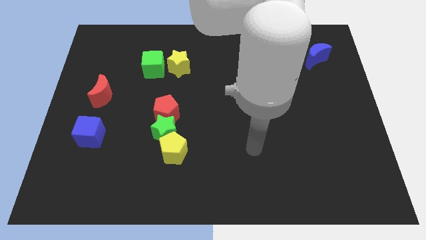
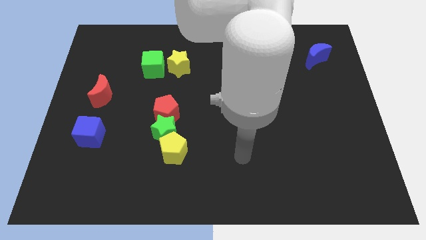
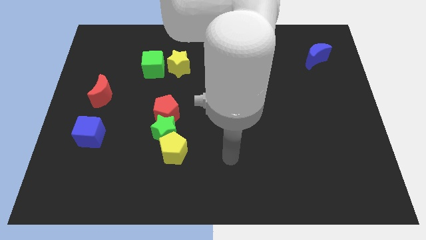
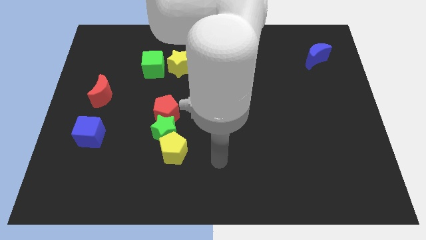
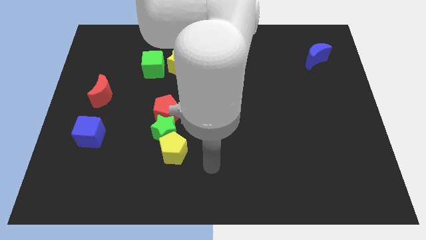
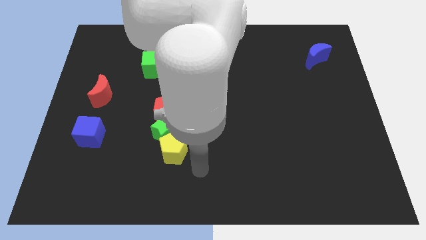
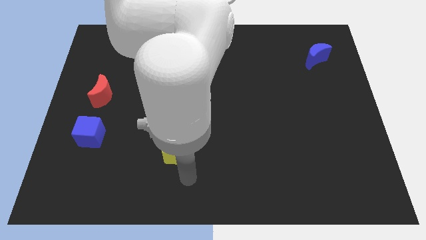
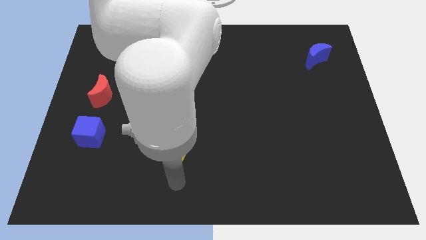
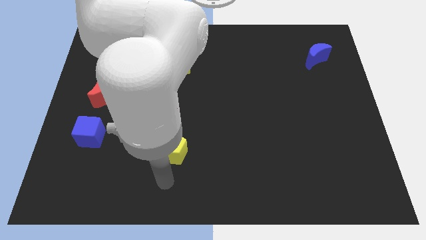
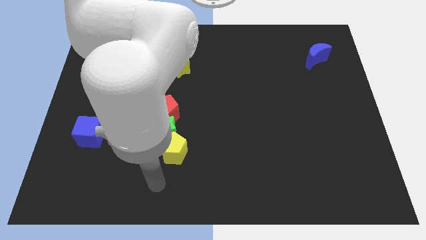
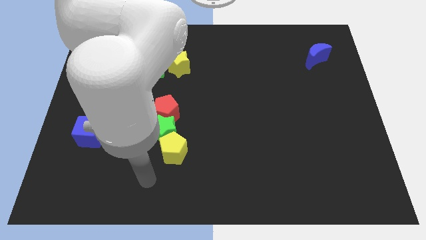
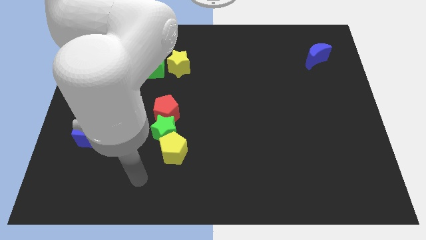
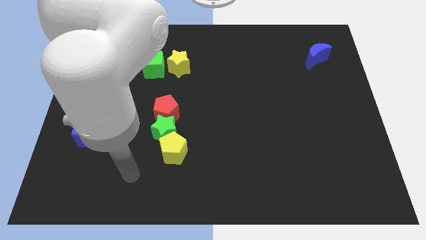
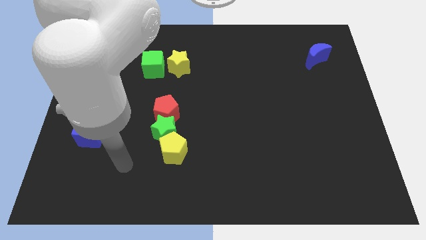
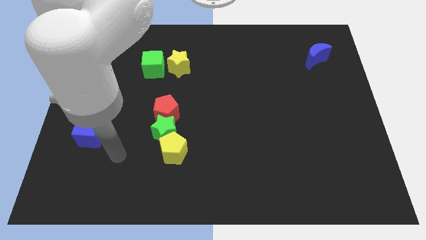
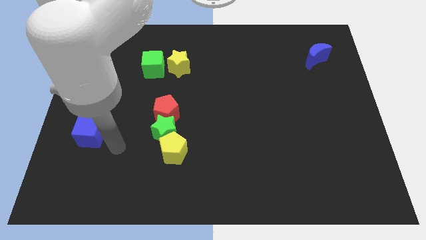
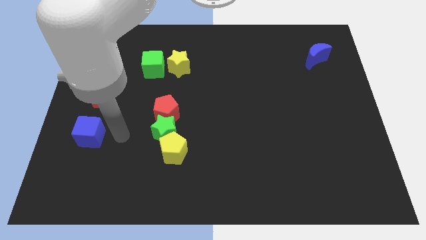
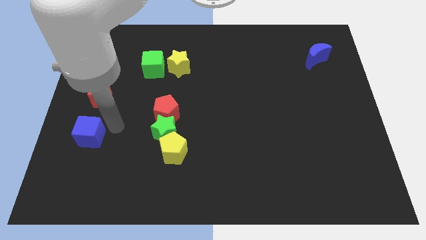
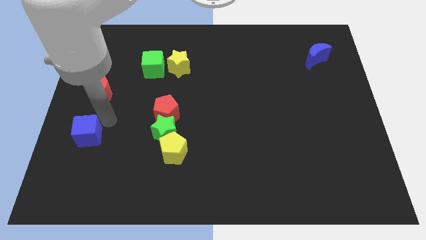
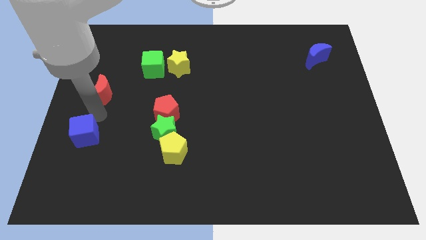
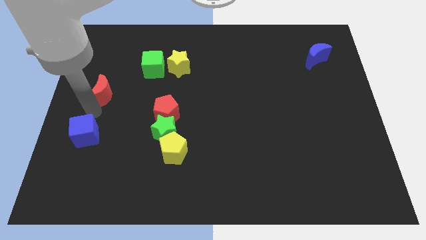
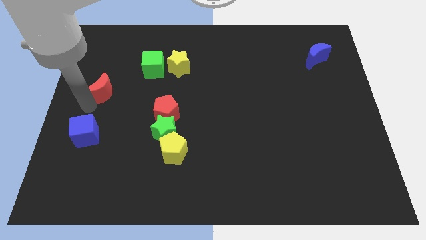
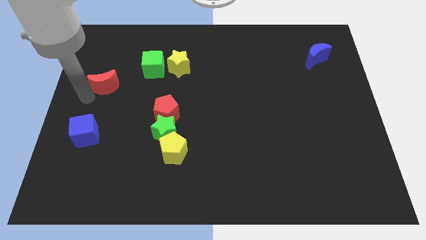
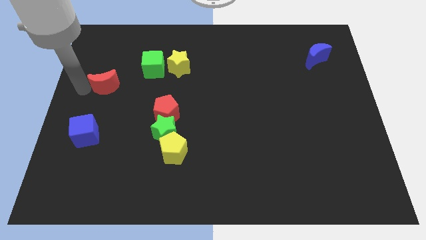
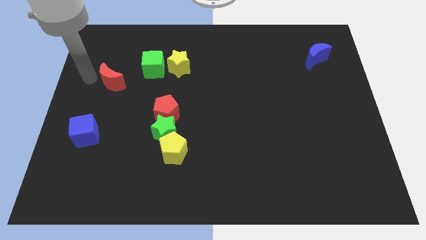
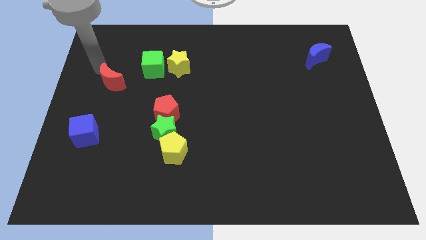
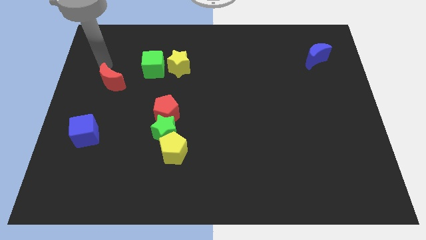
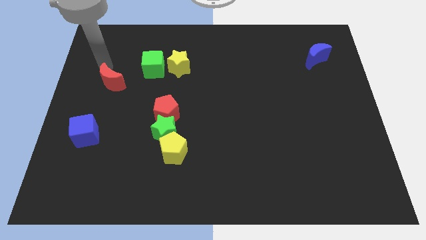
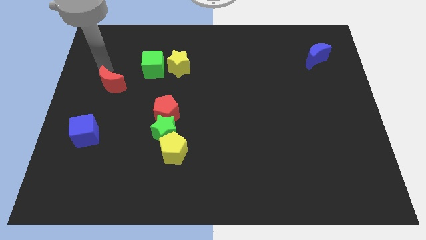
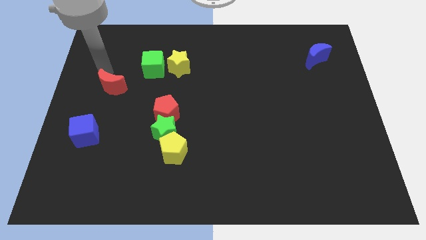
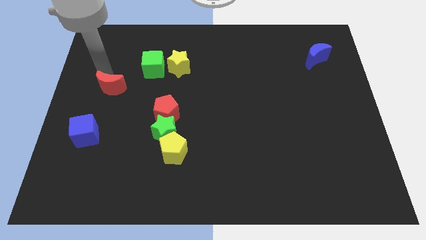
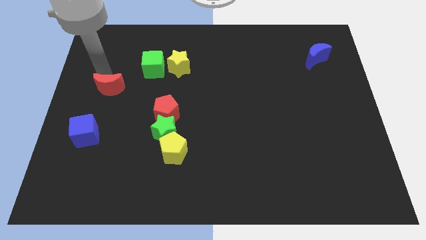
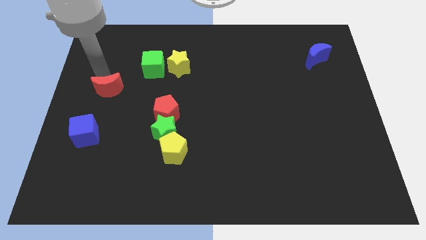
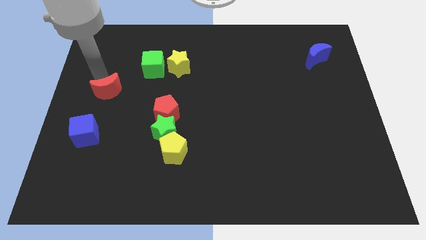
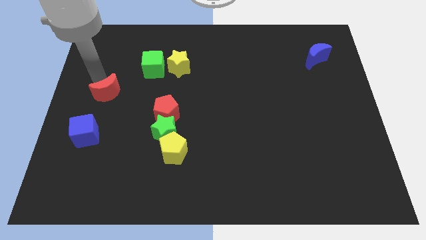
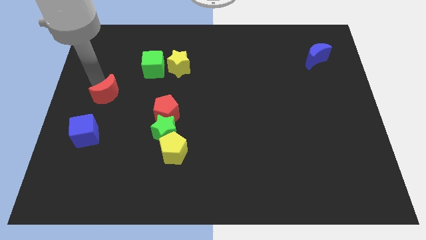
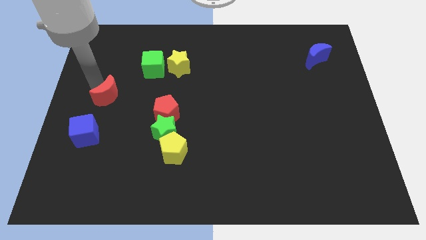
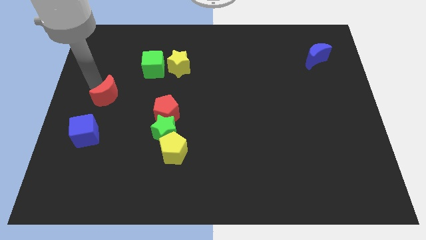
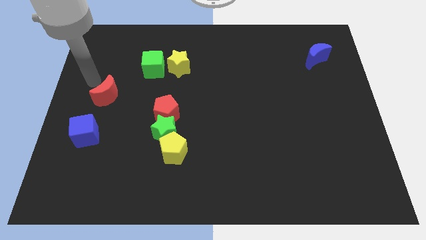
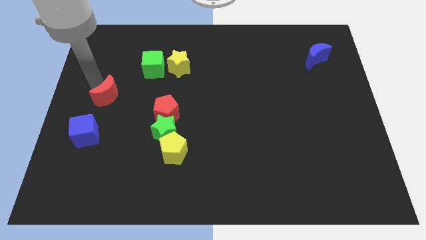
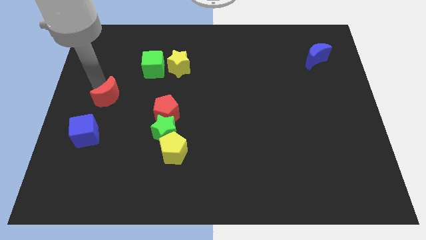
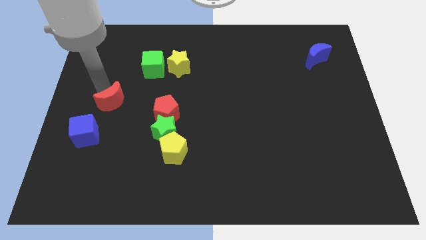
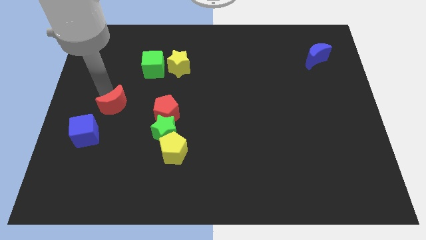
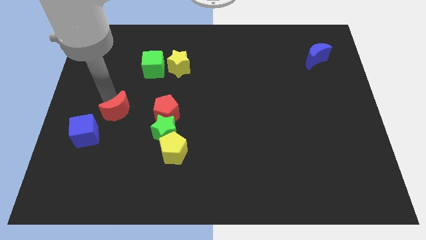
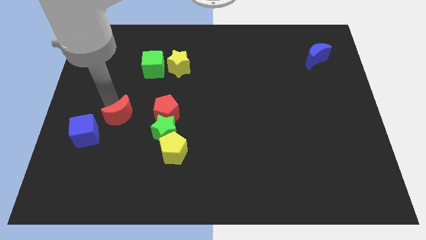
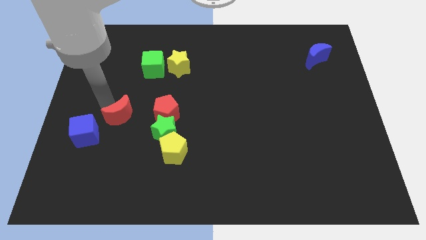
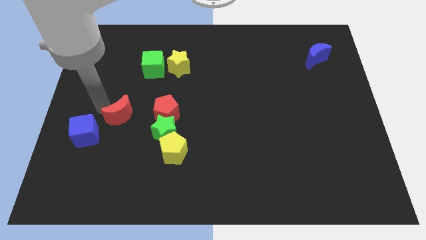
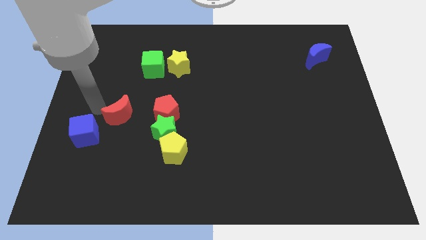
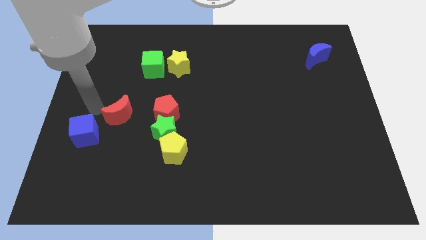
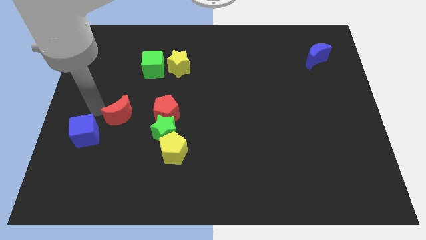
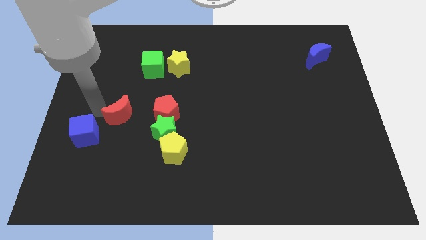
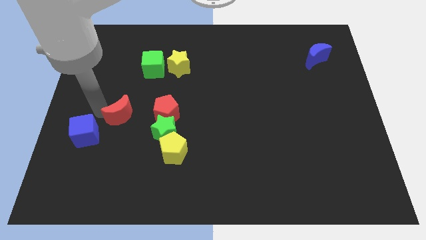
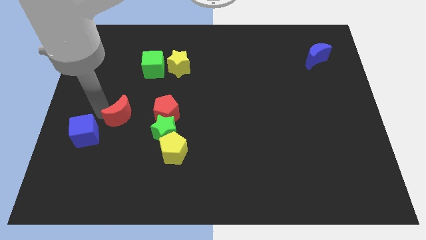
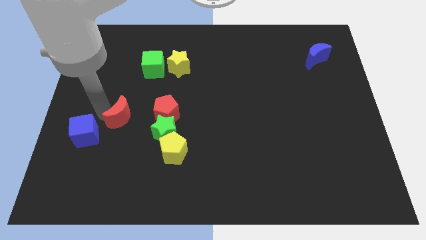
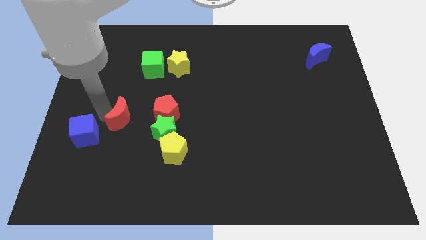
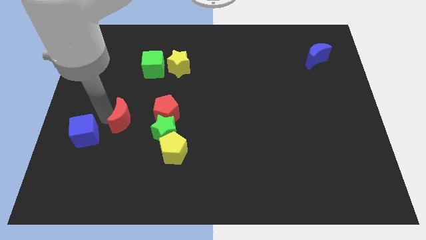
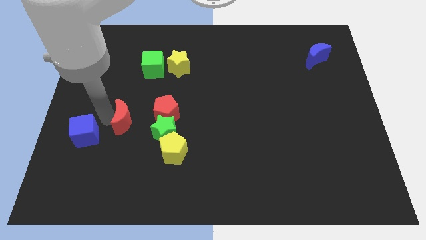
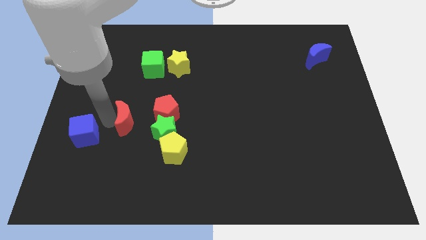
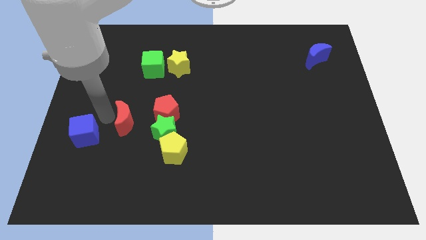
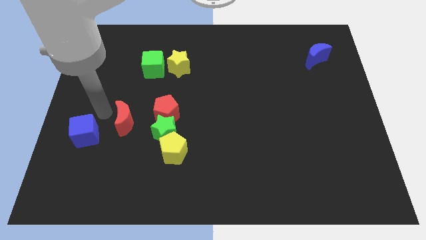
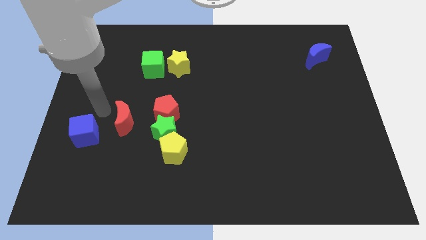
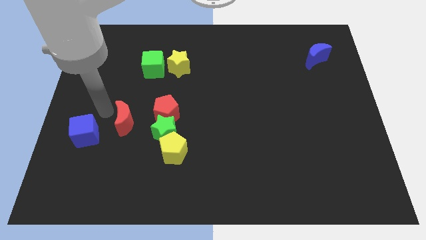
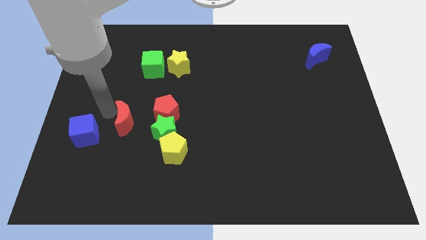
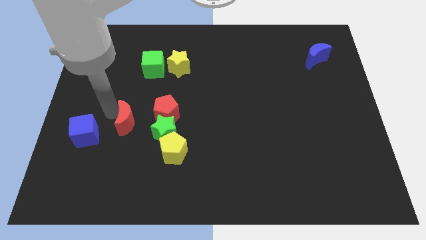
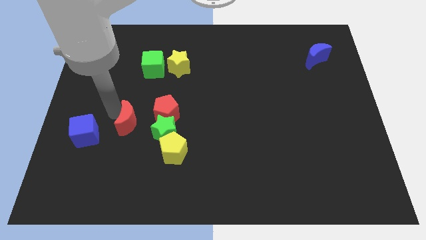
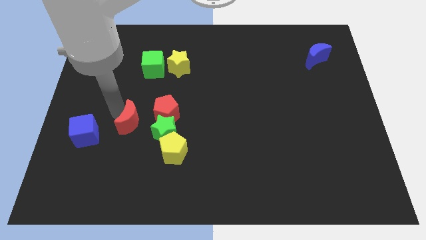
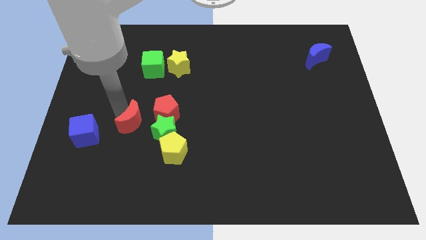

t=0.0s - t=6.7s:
push the red moon to the top left of the yellow pentagon

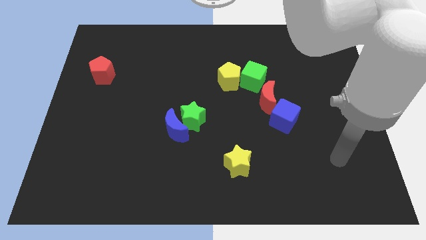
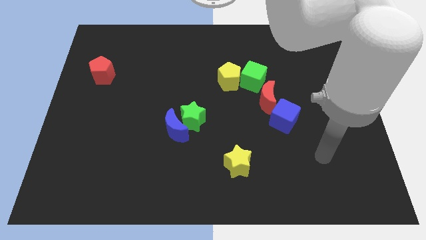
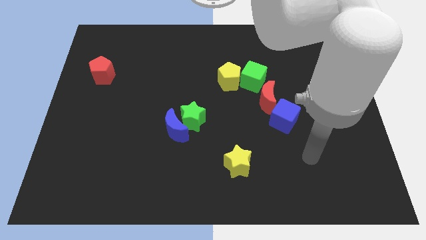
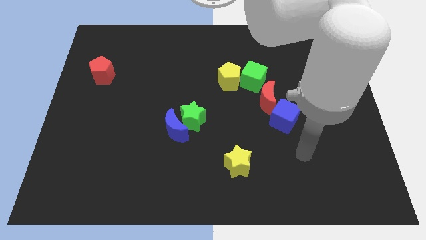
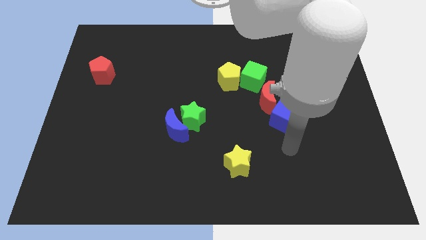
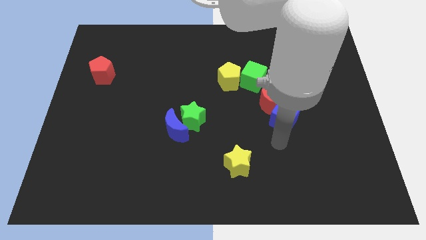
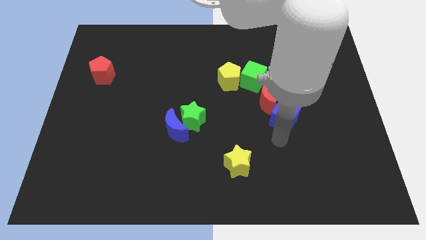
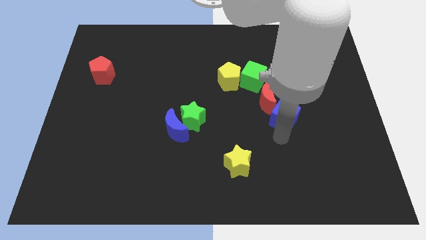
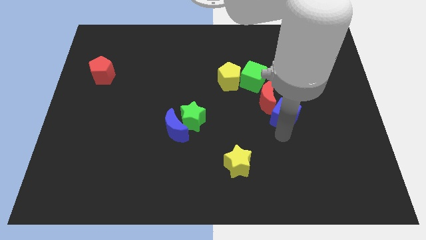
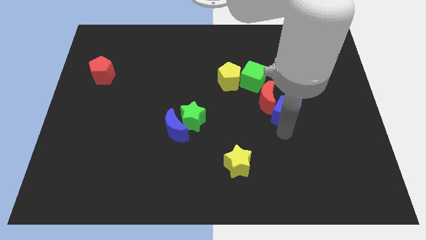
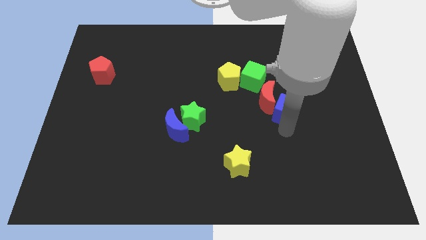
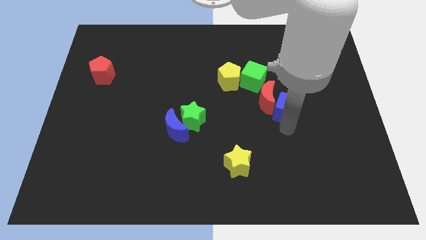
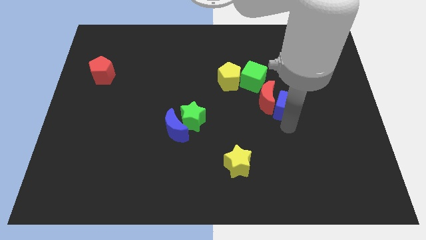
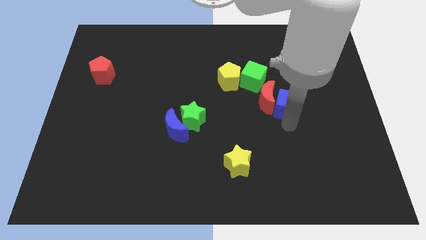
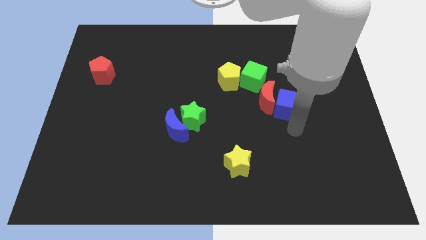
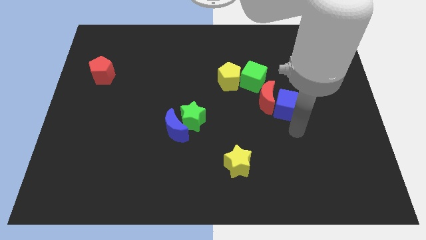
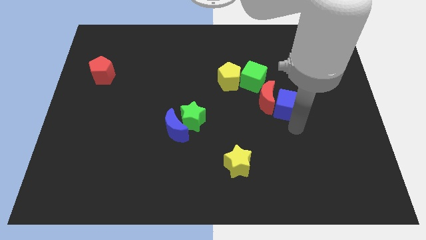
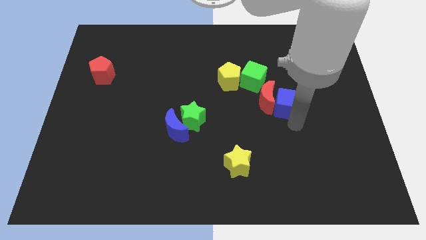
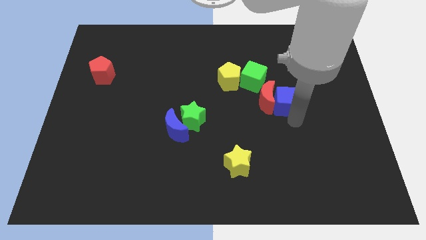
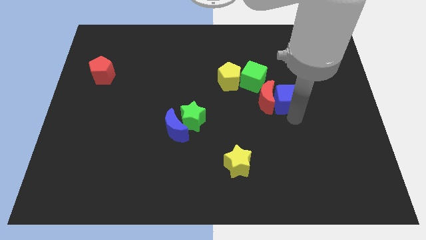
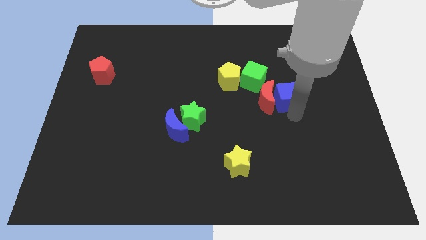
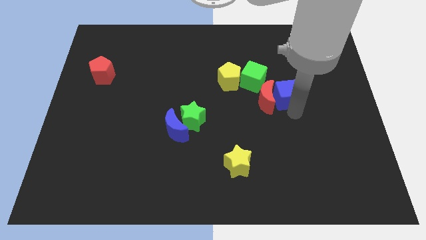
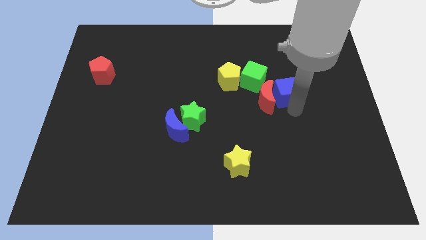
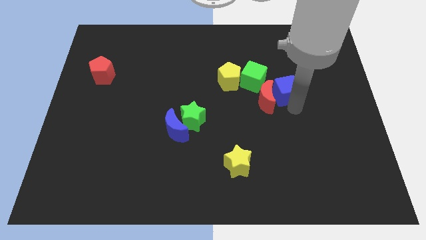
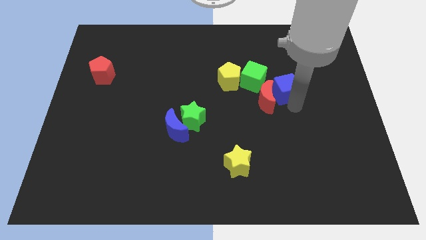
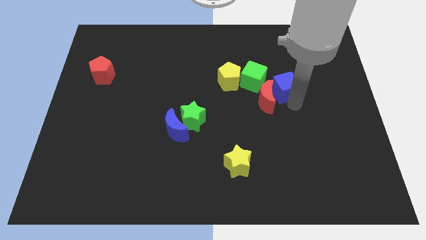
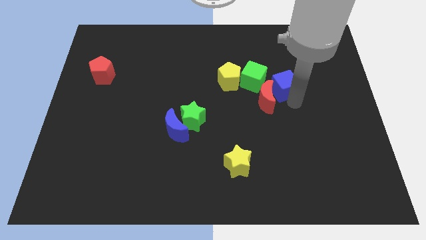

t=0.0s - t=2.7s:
slide the blue cube above the red moon
